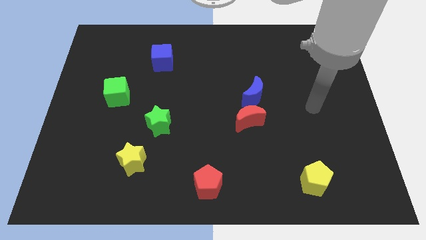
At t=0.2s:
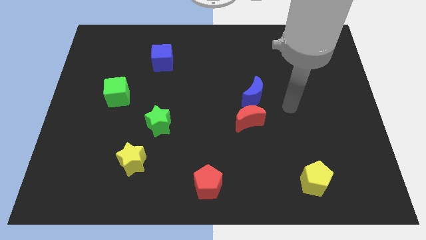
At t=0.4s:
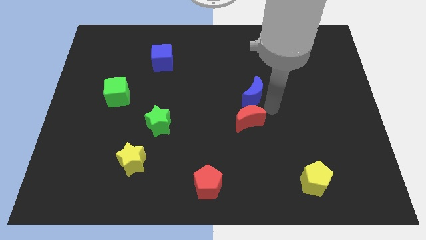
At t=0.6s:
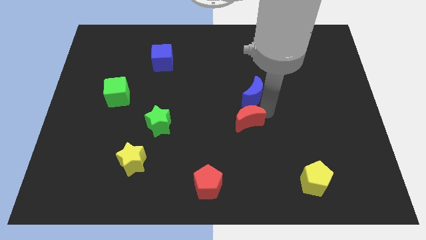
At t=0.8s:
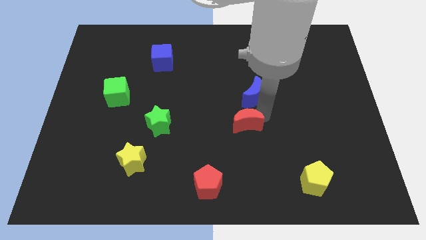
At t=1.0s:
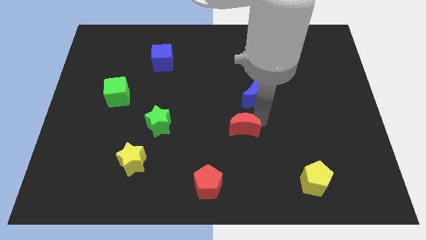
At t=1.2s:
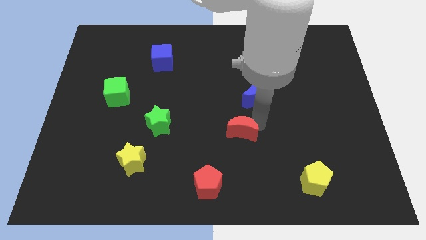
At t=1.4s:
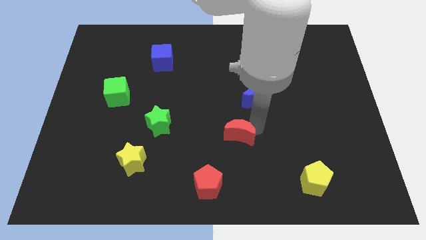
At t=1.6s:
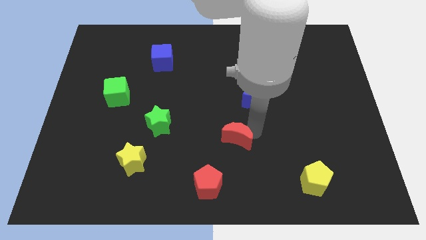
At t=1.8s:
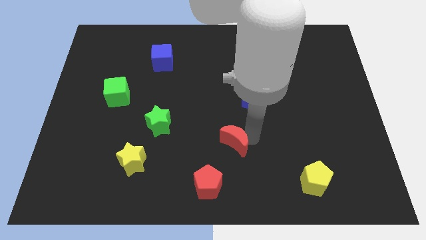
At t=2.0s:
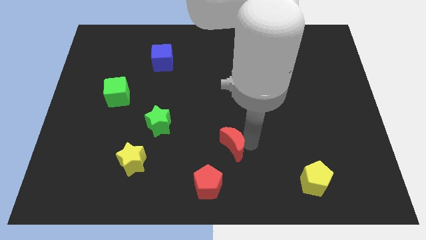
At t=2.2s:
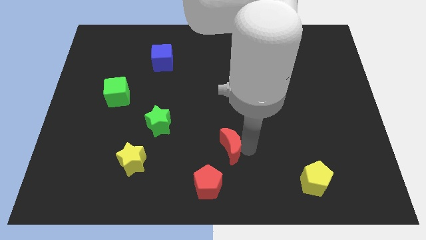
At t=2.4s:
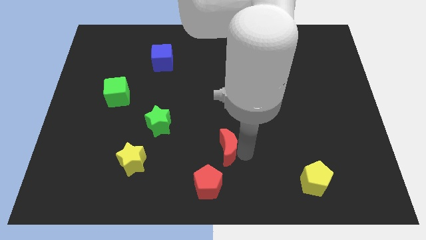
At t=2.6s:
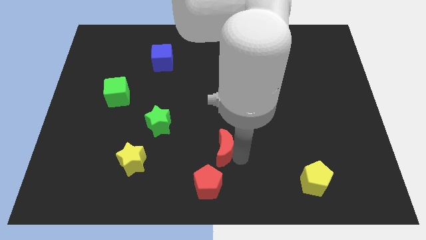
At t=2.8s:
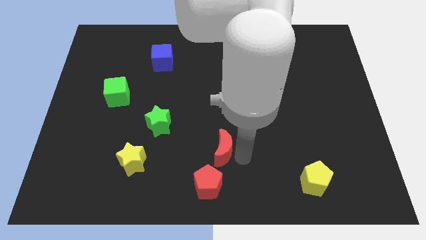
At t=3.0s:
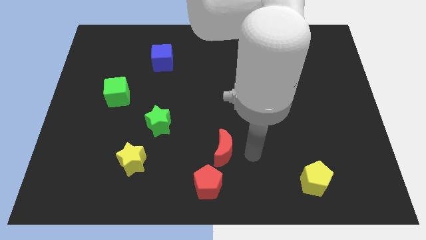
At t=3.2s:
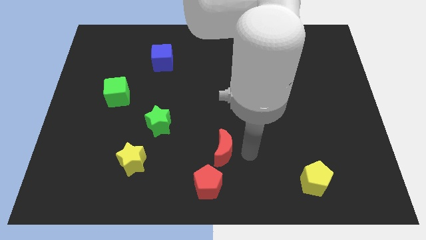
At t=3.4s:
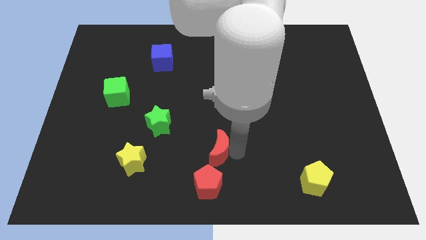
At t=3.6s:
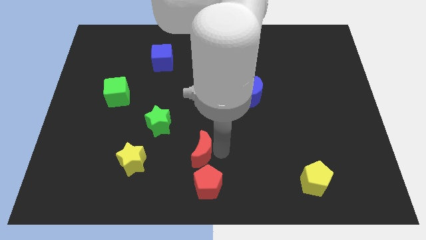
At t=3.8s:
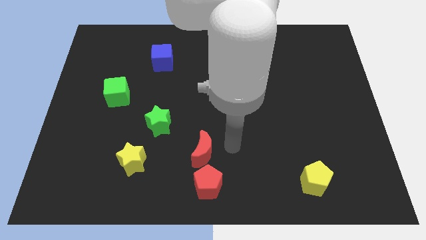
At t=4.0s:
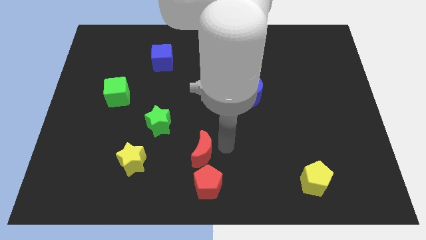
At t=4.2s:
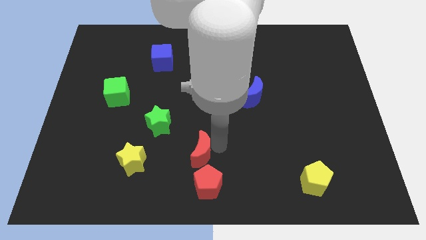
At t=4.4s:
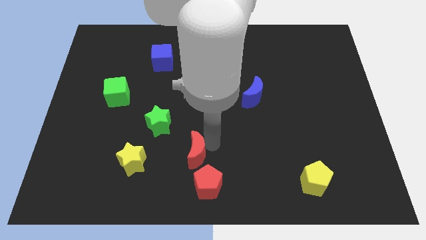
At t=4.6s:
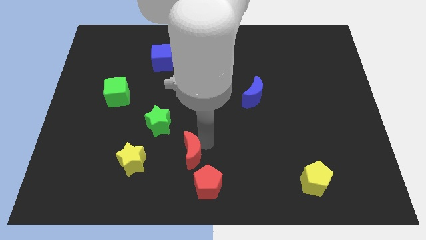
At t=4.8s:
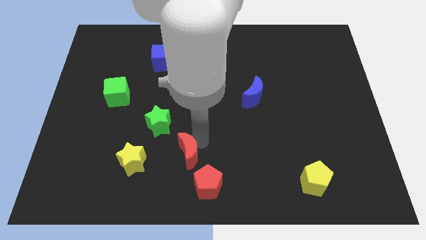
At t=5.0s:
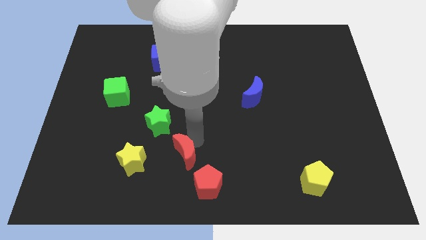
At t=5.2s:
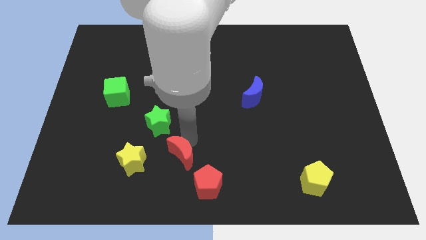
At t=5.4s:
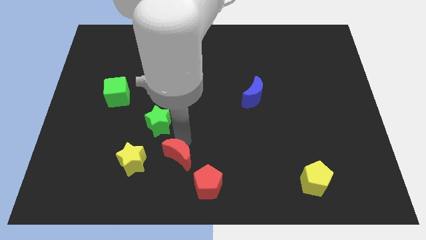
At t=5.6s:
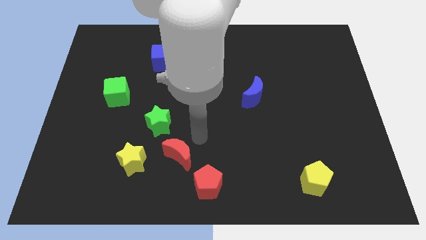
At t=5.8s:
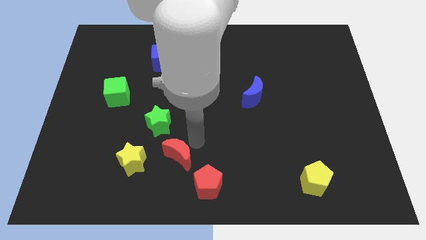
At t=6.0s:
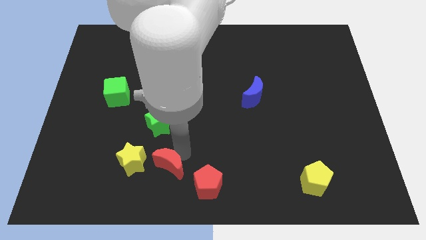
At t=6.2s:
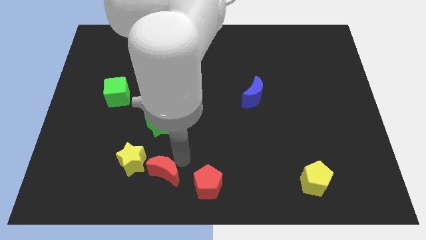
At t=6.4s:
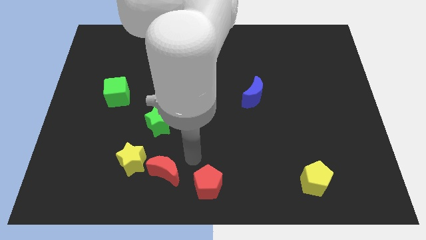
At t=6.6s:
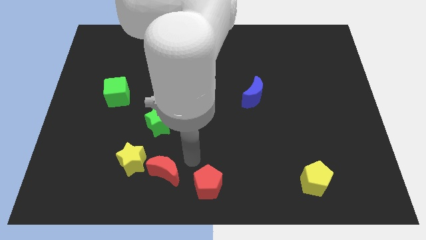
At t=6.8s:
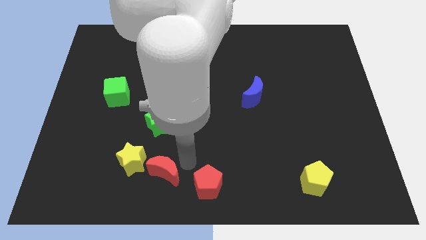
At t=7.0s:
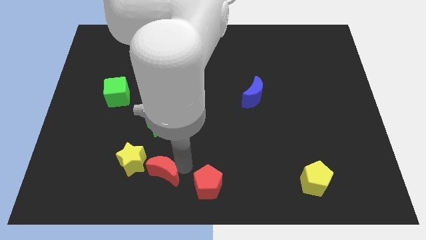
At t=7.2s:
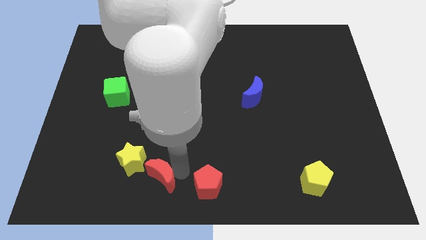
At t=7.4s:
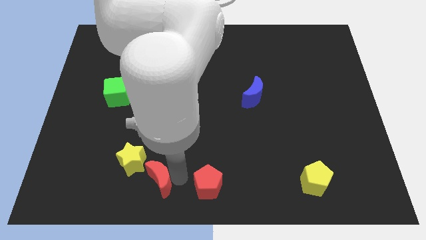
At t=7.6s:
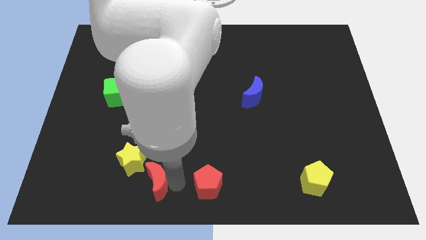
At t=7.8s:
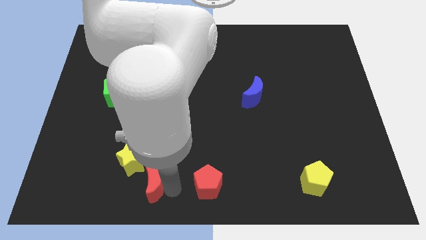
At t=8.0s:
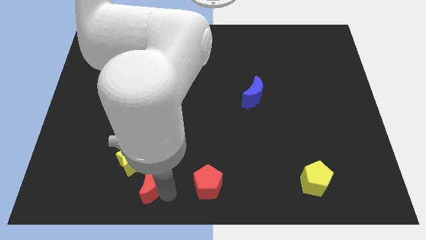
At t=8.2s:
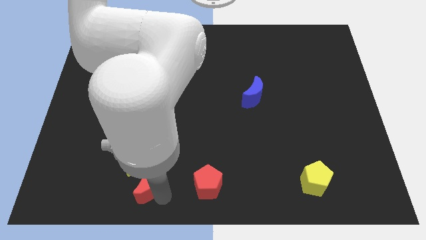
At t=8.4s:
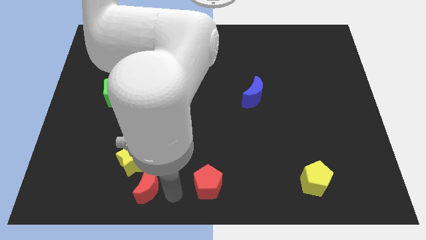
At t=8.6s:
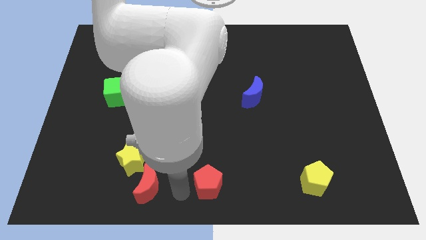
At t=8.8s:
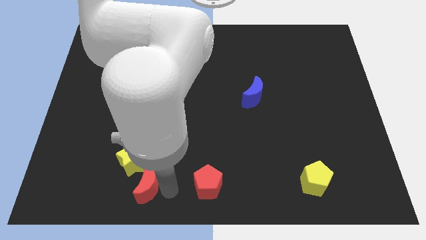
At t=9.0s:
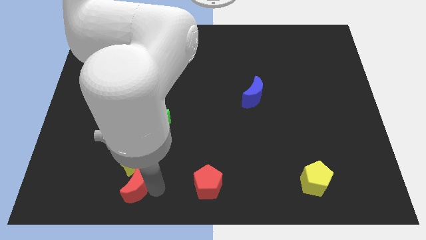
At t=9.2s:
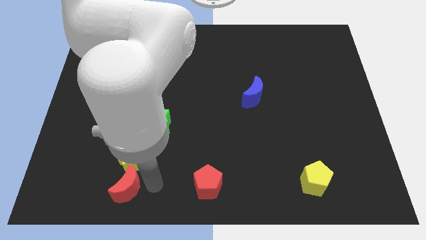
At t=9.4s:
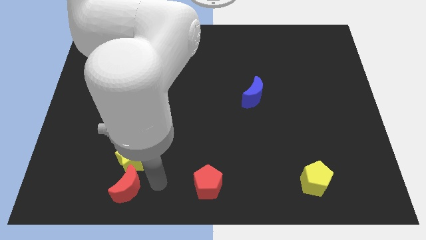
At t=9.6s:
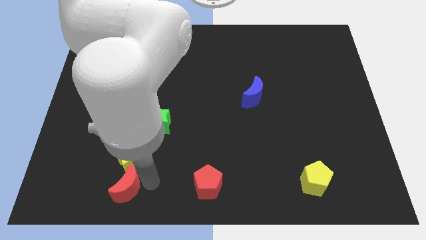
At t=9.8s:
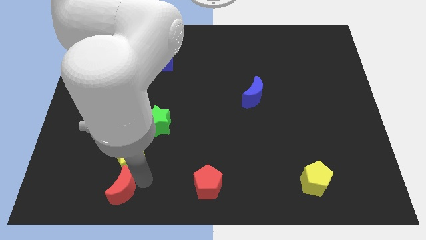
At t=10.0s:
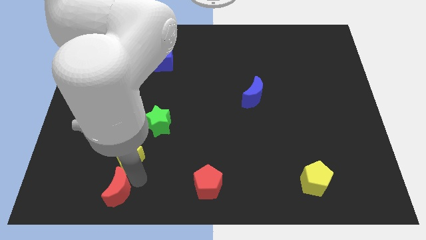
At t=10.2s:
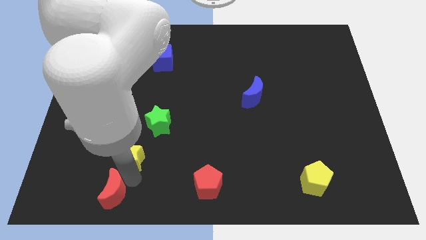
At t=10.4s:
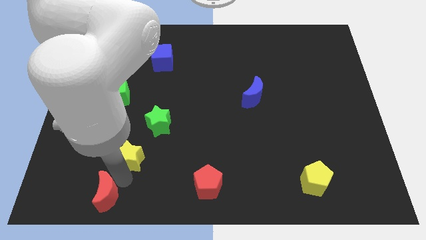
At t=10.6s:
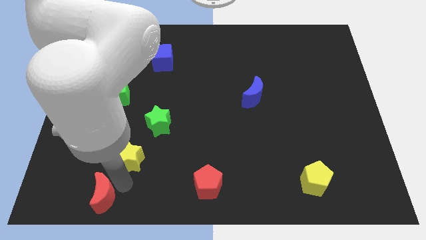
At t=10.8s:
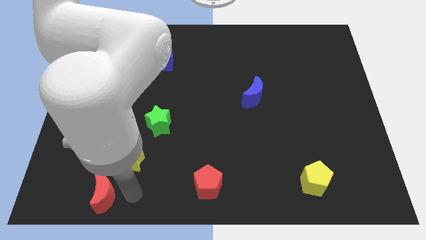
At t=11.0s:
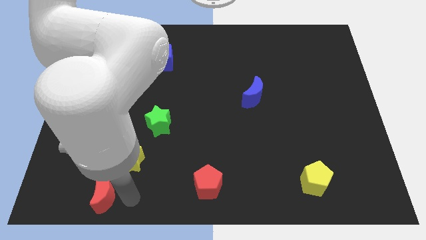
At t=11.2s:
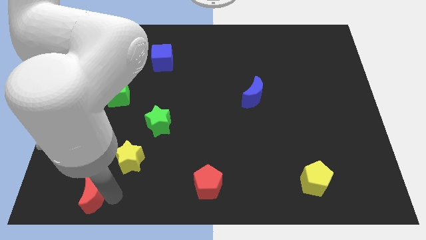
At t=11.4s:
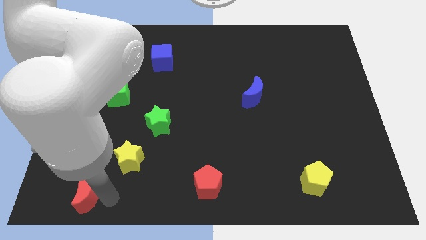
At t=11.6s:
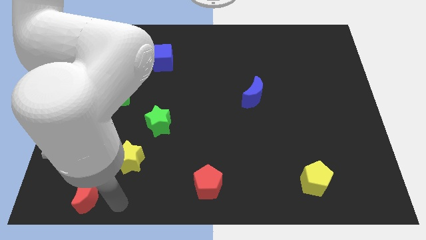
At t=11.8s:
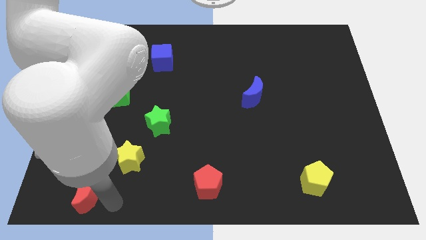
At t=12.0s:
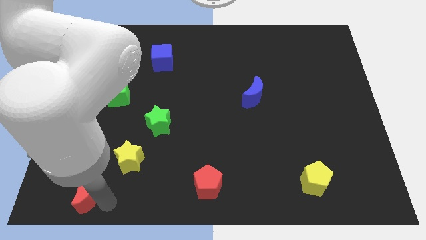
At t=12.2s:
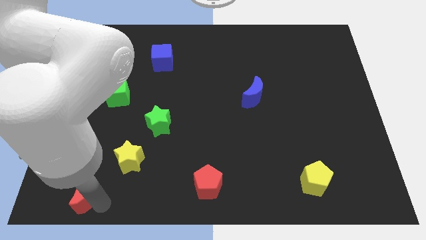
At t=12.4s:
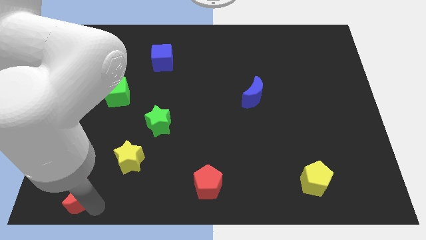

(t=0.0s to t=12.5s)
slide the red moon to the bottom left

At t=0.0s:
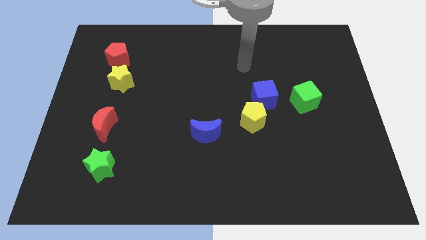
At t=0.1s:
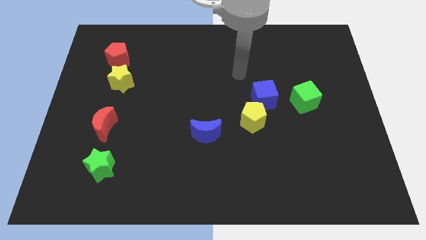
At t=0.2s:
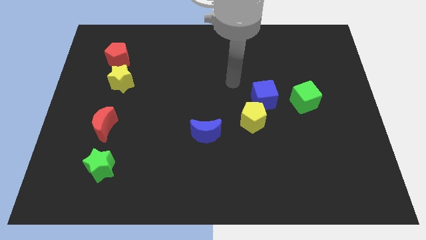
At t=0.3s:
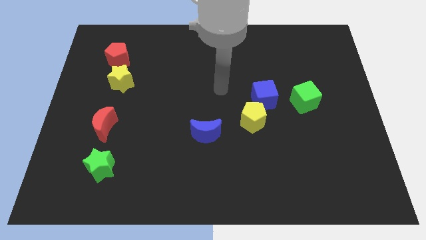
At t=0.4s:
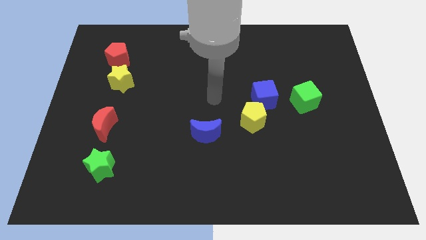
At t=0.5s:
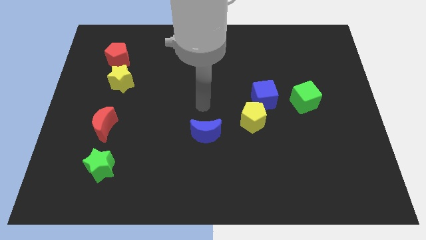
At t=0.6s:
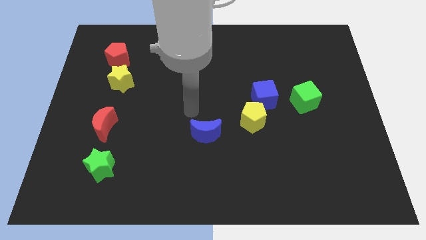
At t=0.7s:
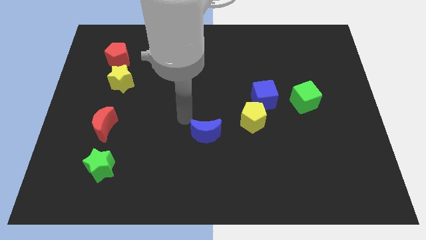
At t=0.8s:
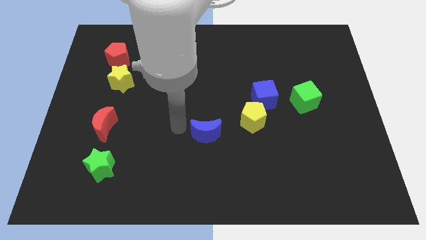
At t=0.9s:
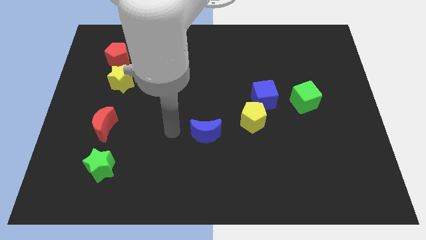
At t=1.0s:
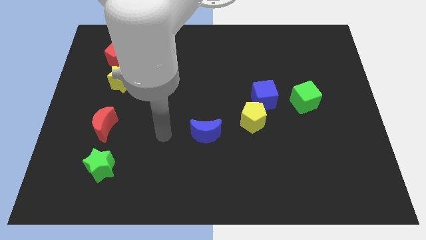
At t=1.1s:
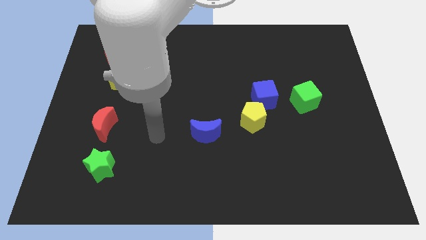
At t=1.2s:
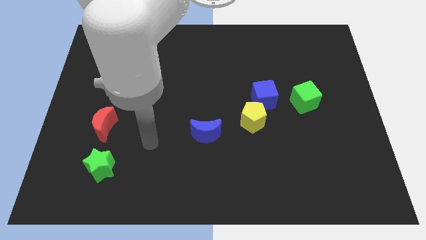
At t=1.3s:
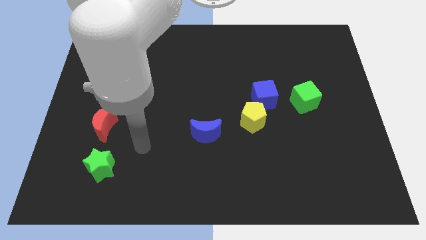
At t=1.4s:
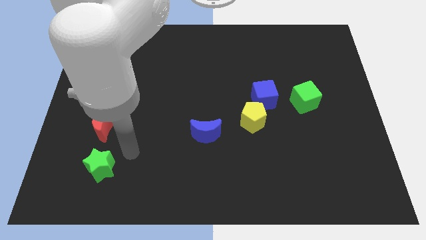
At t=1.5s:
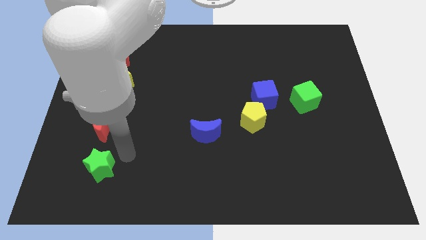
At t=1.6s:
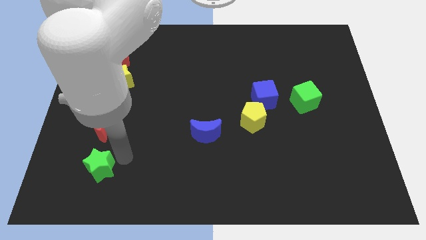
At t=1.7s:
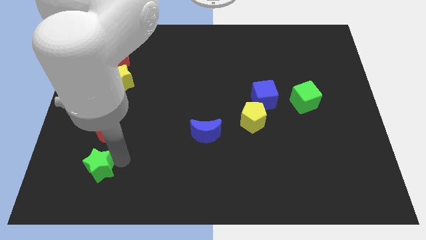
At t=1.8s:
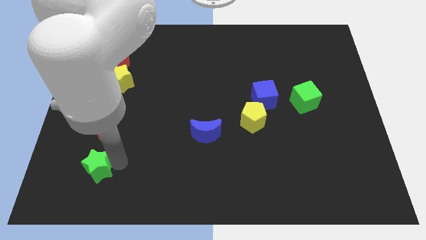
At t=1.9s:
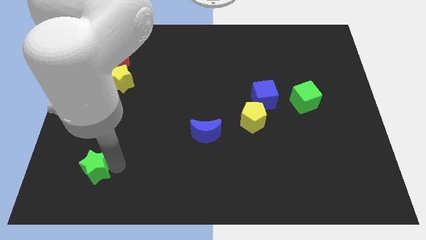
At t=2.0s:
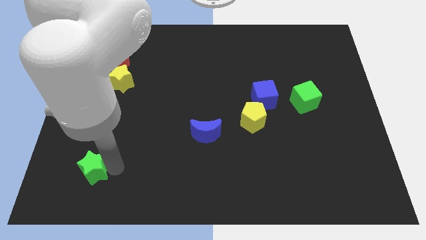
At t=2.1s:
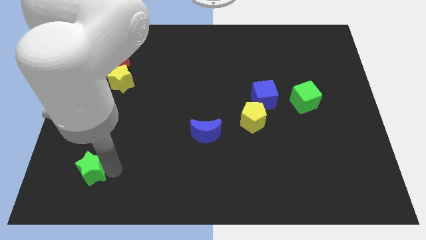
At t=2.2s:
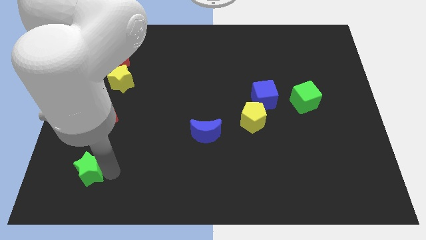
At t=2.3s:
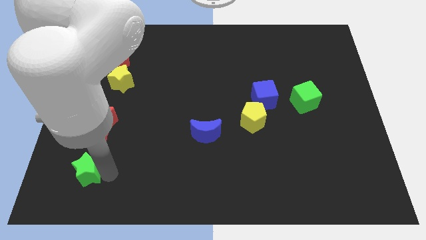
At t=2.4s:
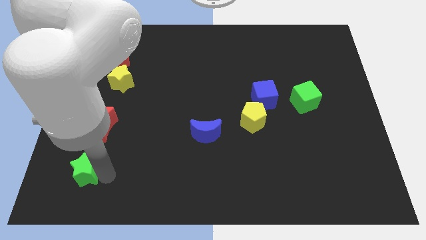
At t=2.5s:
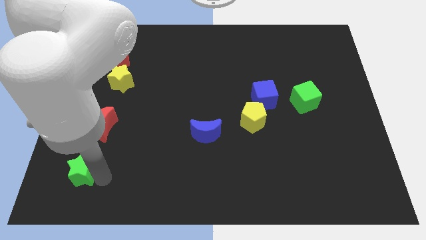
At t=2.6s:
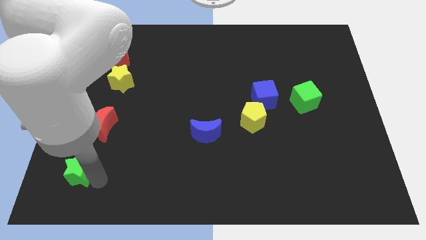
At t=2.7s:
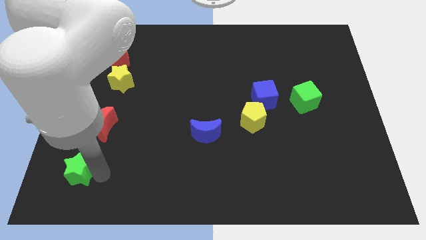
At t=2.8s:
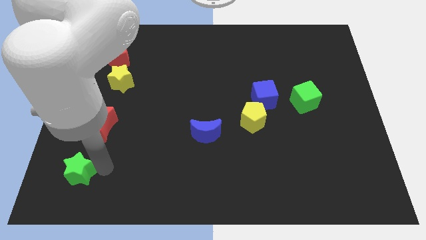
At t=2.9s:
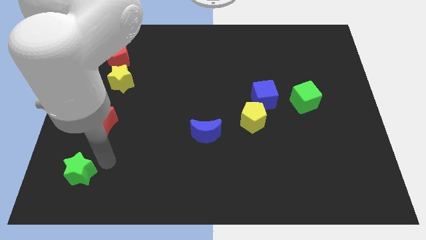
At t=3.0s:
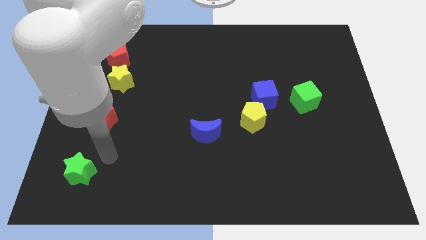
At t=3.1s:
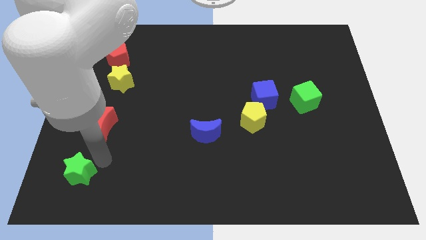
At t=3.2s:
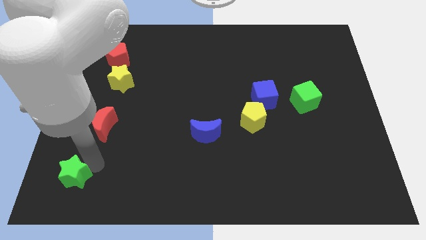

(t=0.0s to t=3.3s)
move the green star to the bottom left
